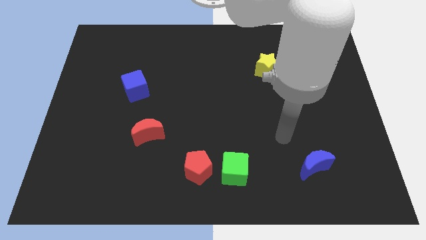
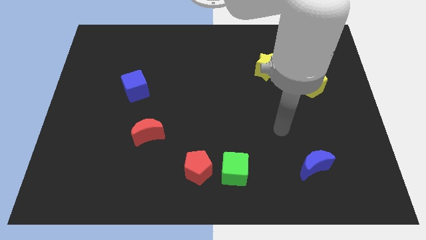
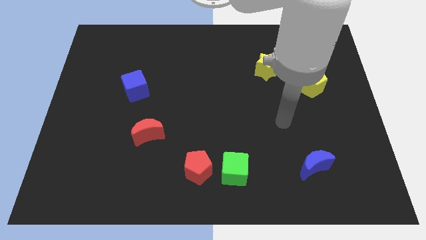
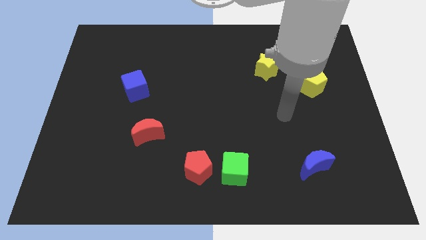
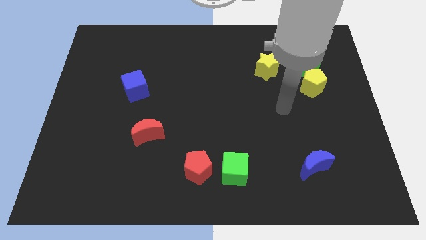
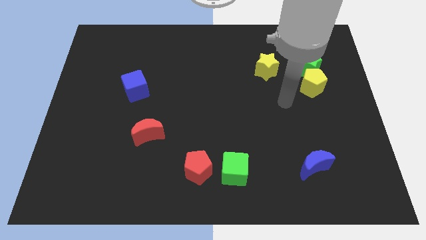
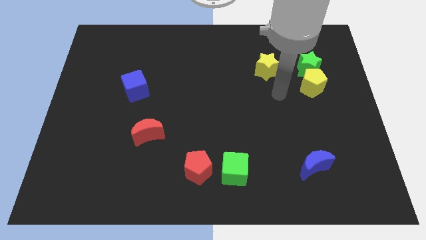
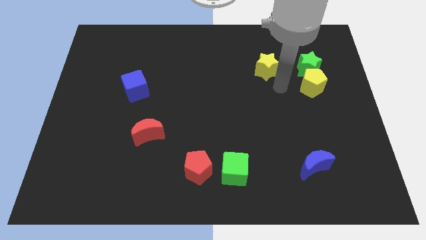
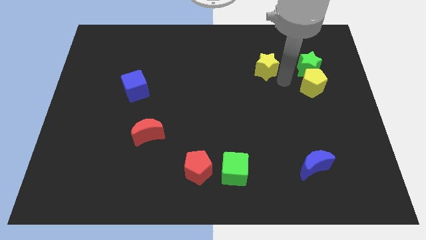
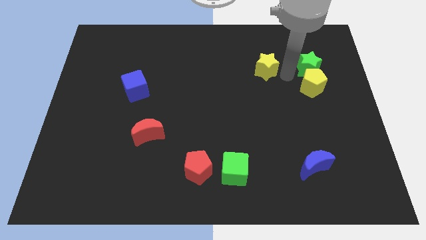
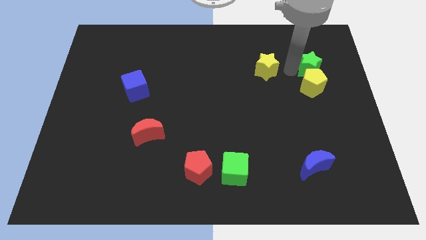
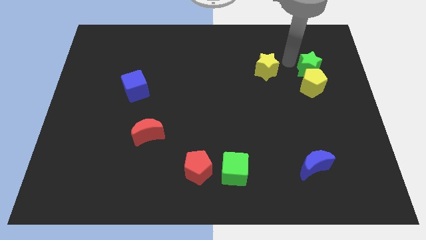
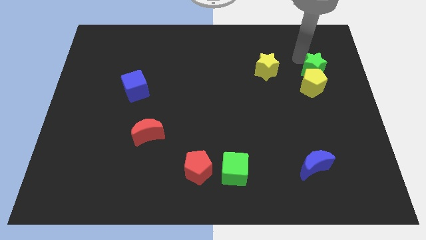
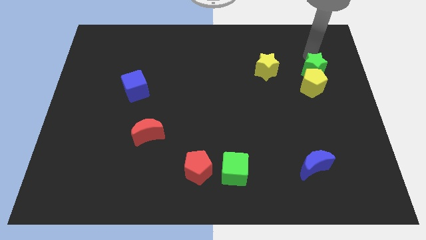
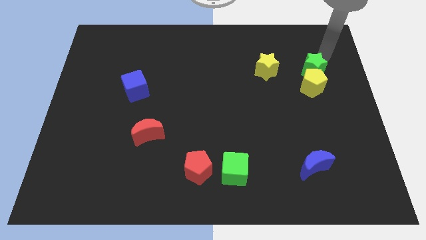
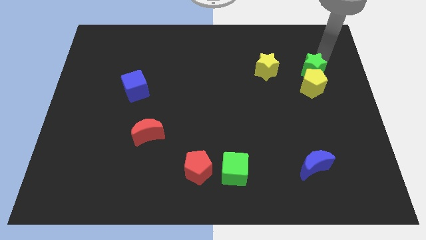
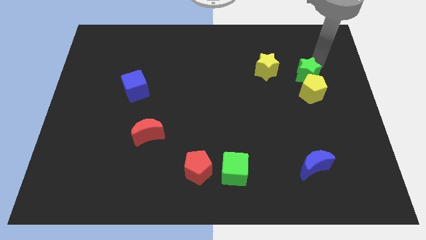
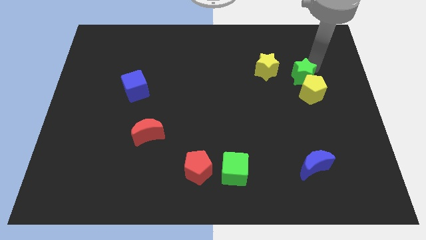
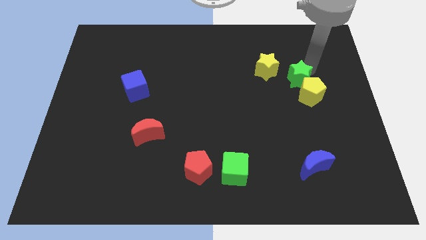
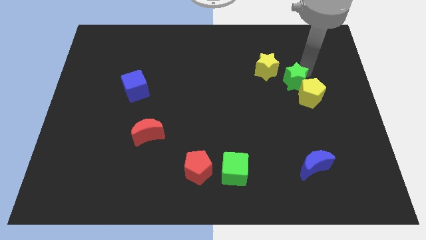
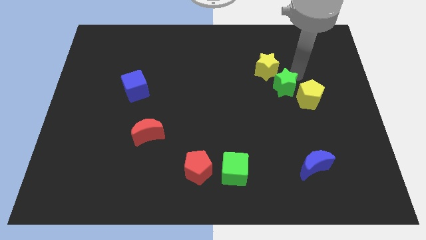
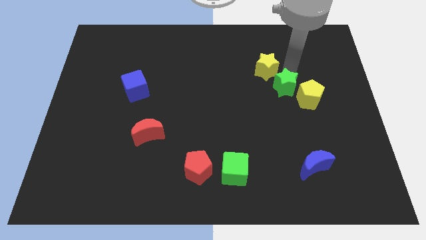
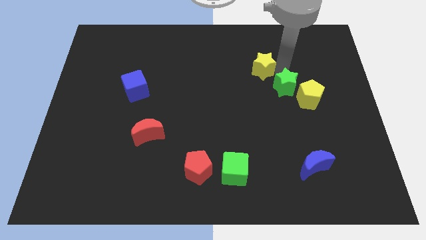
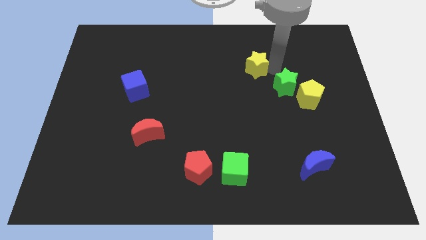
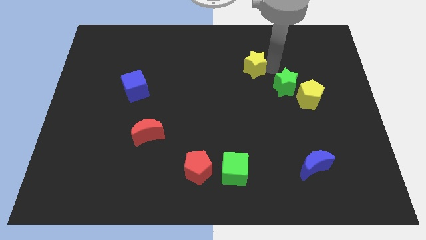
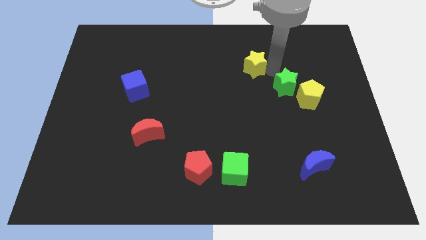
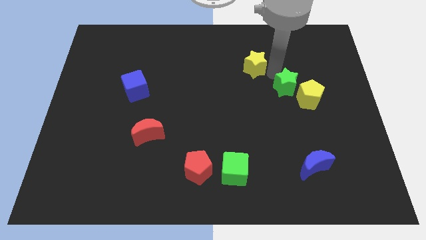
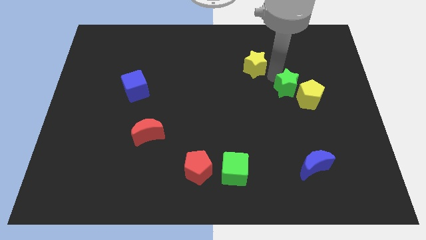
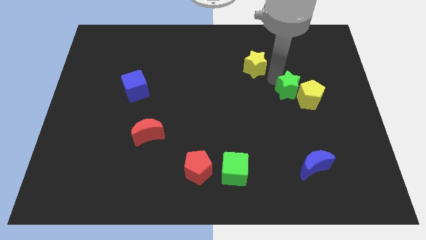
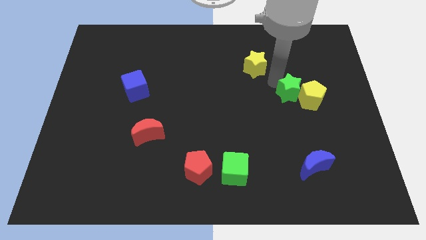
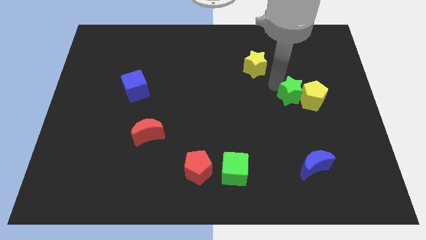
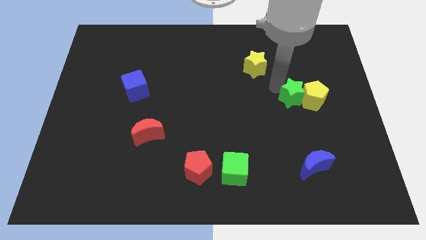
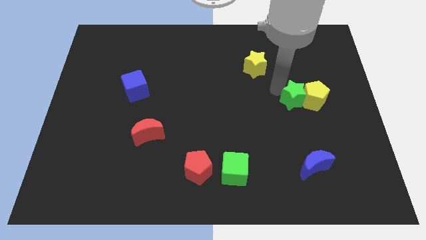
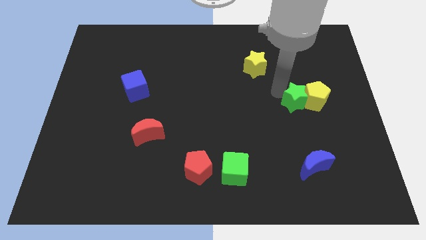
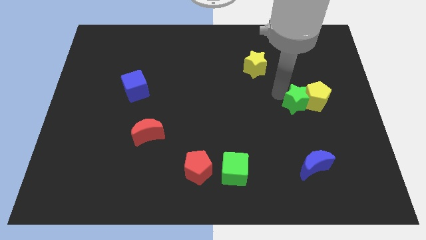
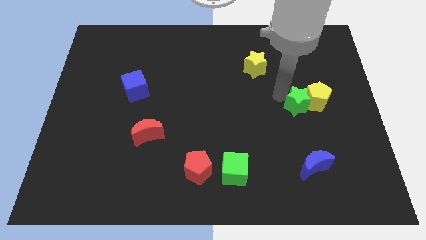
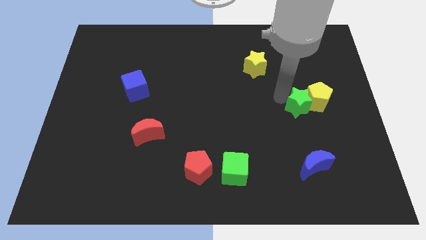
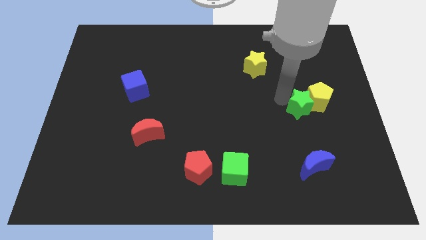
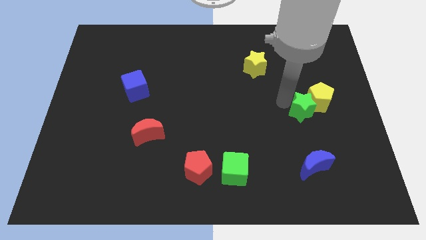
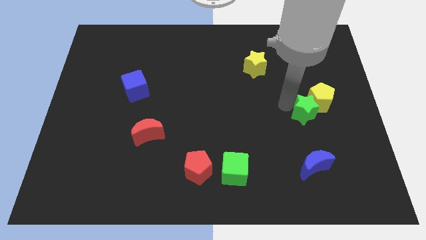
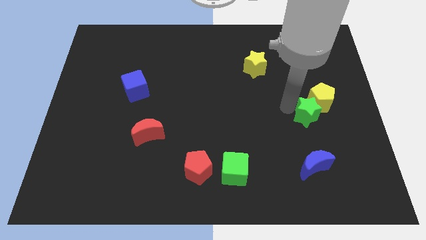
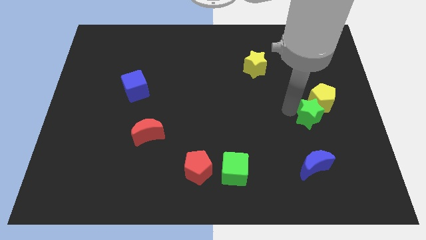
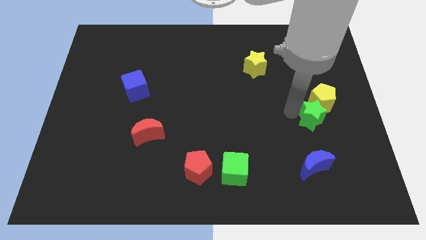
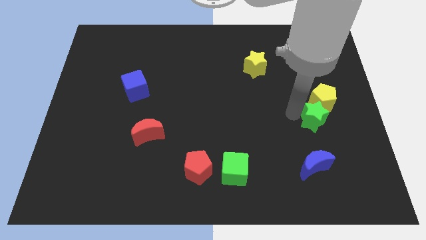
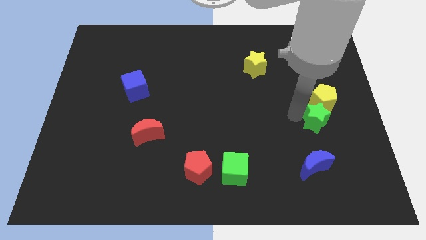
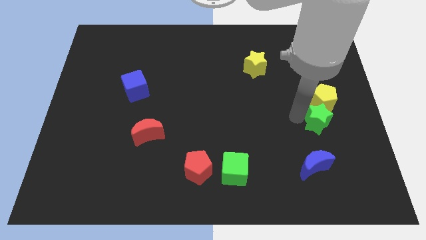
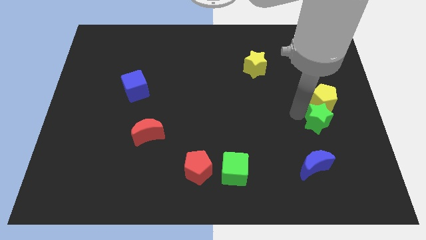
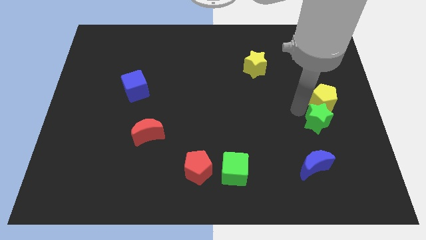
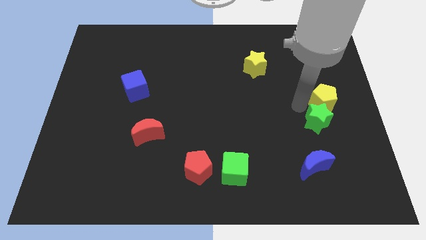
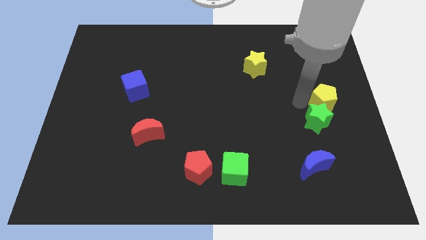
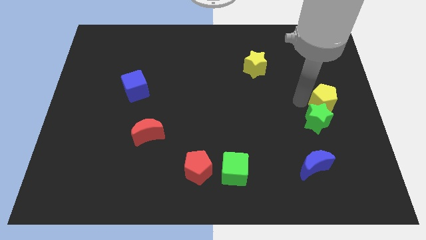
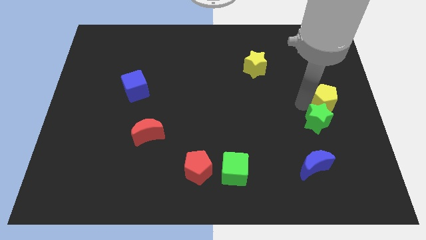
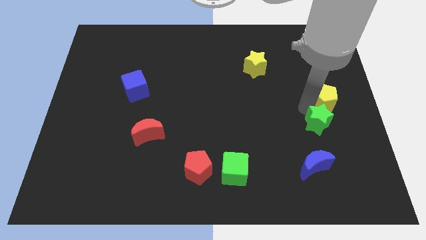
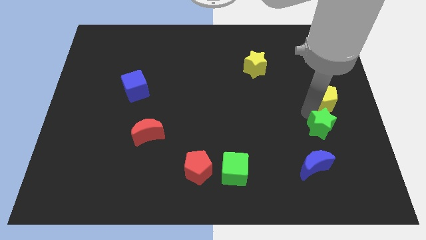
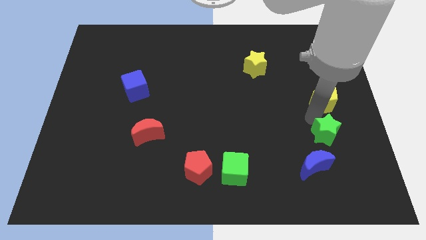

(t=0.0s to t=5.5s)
push the green star down

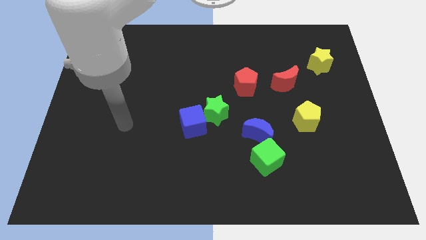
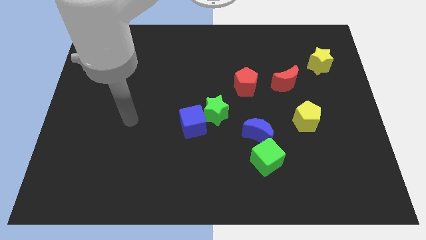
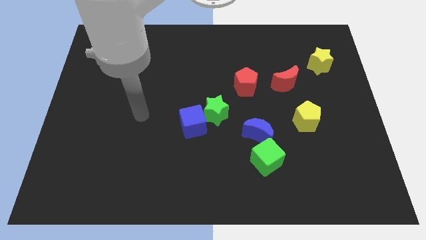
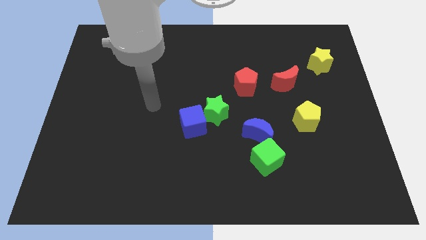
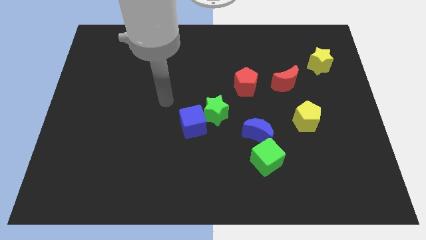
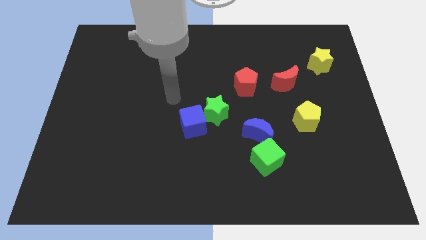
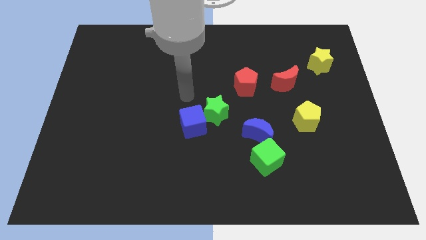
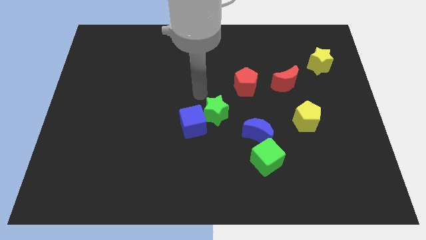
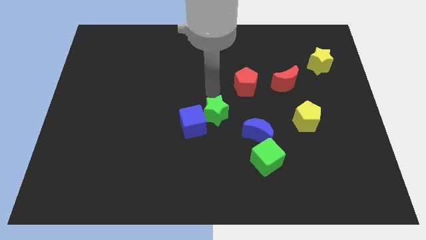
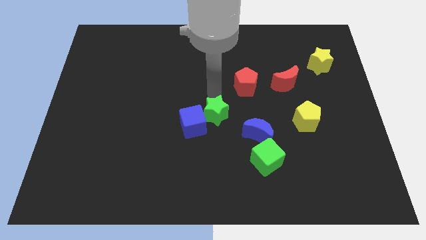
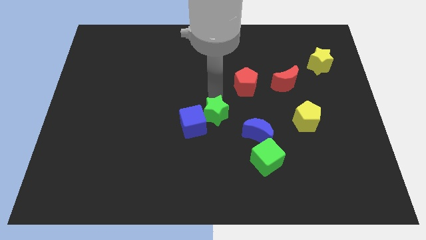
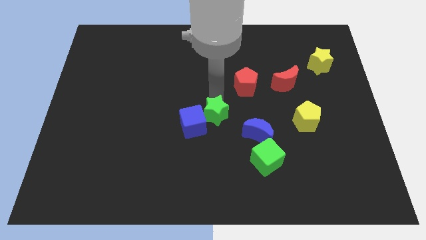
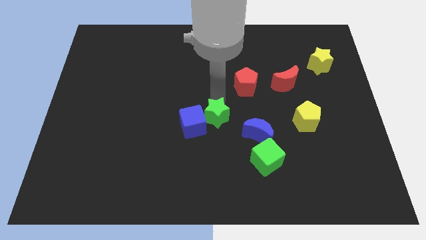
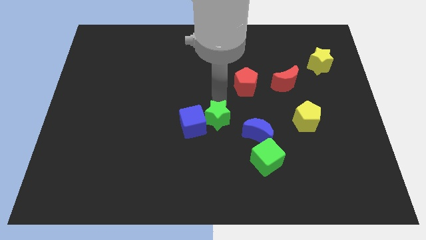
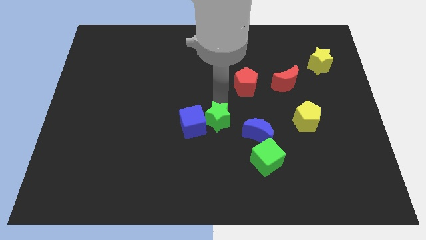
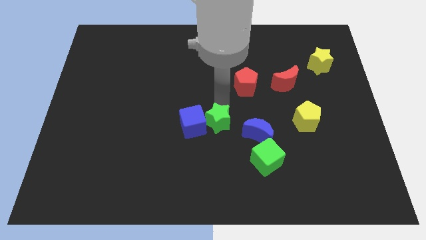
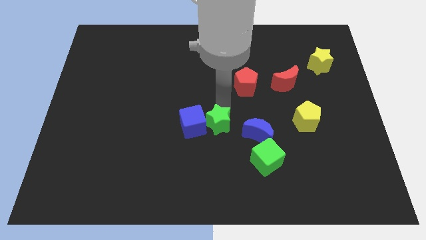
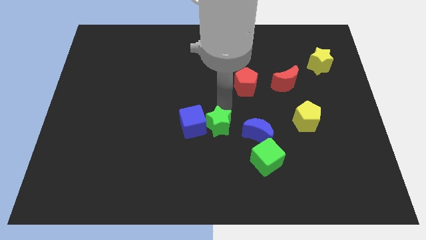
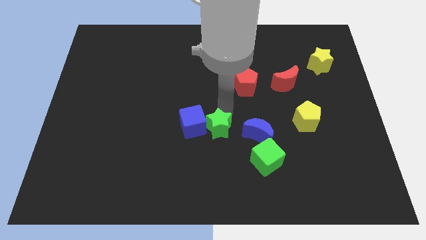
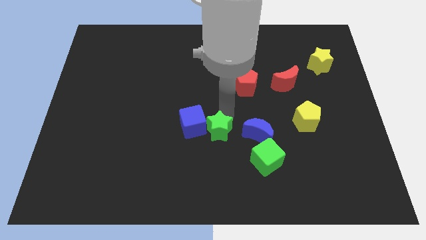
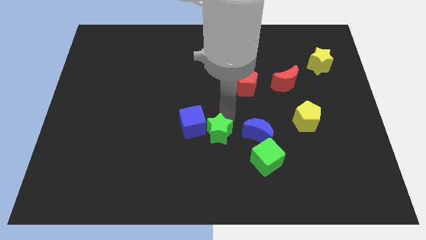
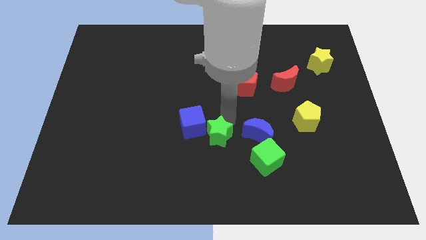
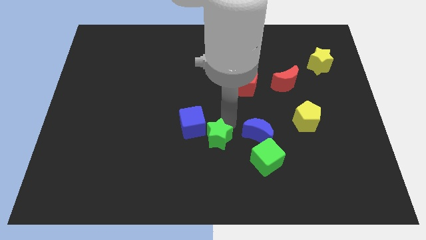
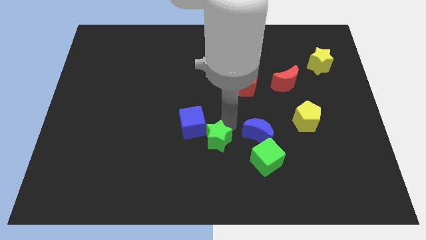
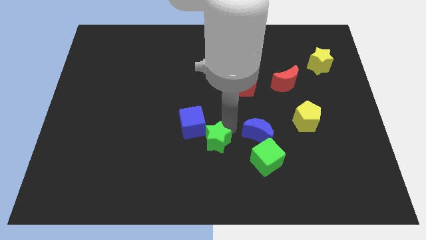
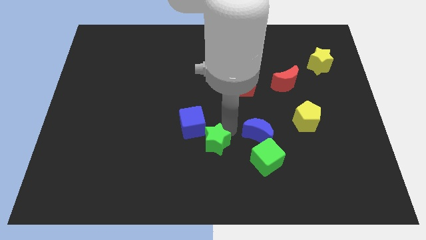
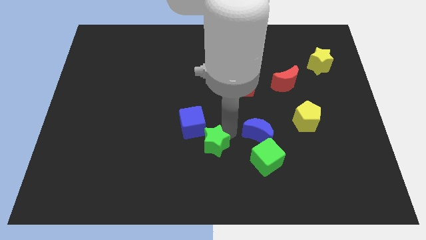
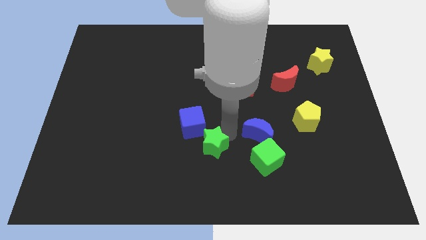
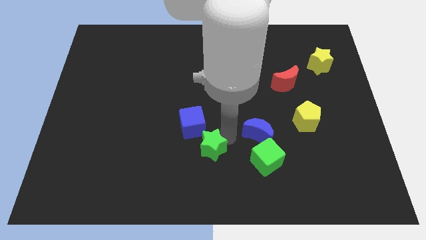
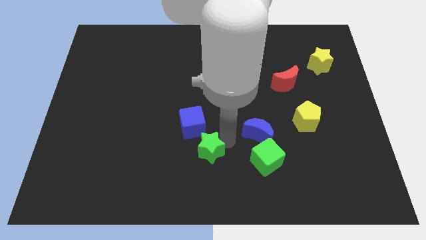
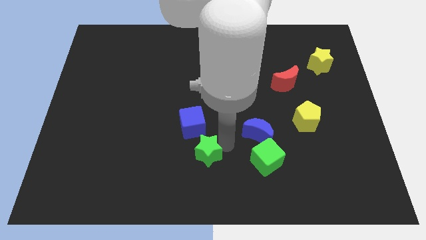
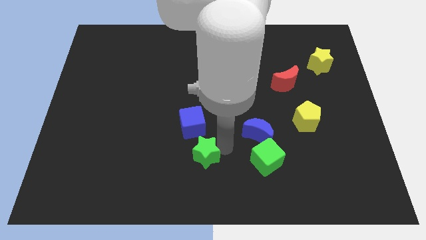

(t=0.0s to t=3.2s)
slide the green star somewhat down and then to the left
